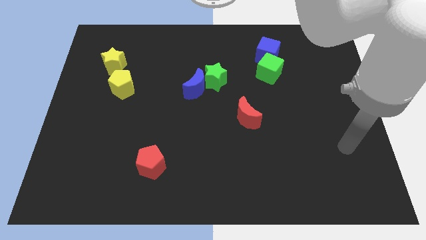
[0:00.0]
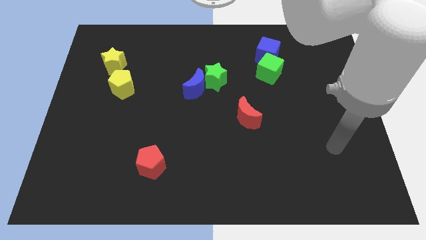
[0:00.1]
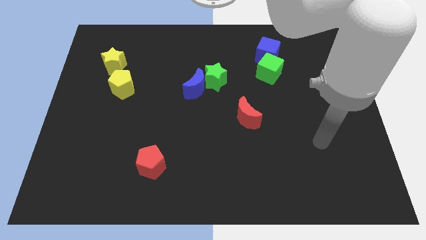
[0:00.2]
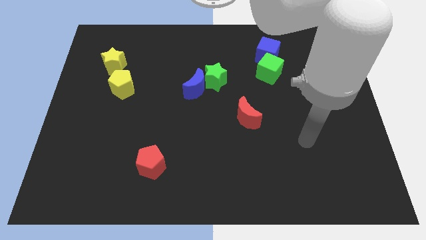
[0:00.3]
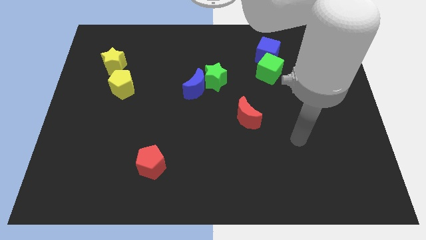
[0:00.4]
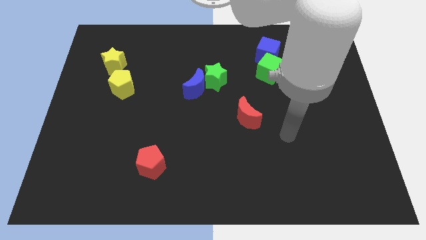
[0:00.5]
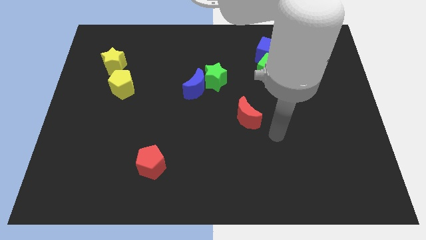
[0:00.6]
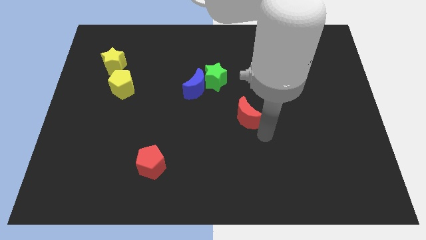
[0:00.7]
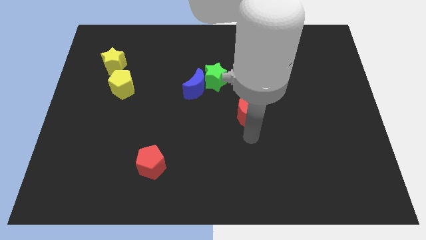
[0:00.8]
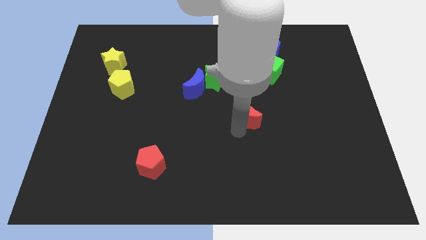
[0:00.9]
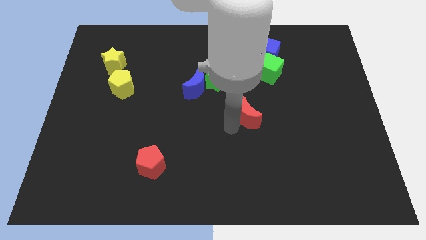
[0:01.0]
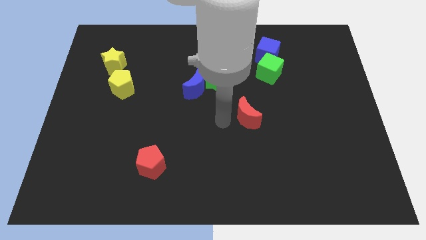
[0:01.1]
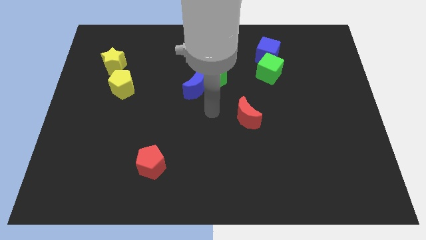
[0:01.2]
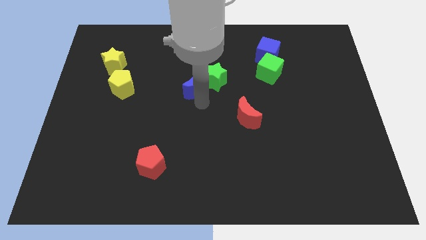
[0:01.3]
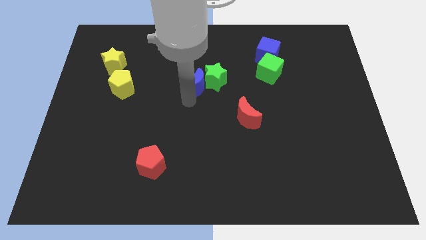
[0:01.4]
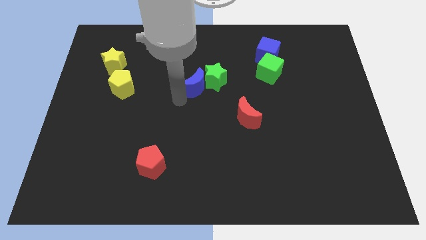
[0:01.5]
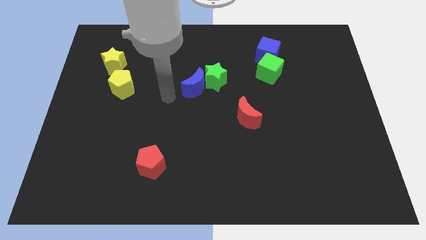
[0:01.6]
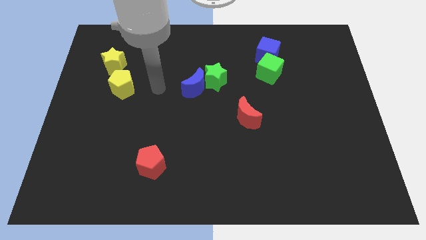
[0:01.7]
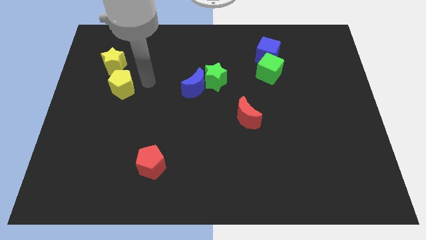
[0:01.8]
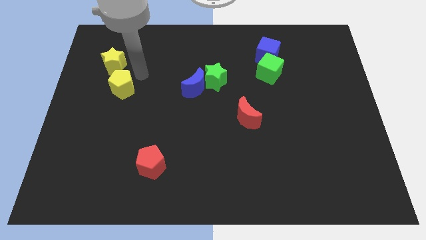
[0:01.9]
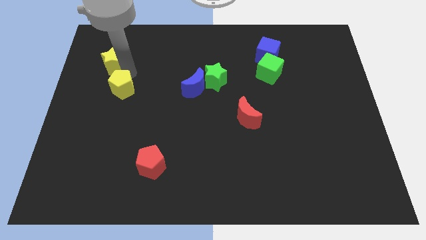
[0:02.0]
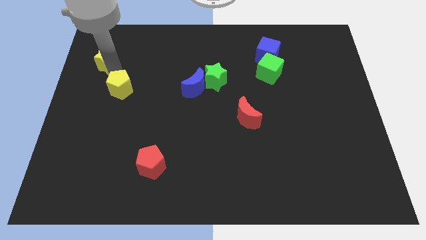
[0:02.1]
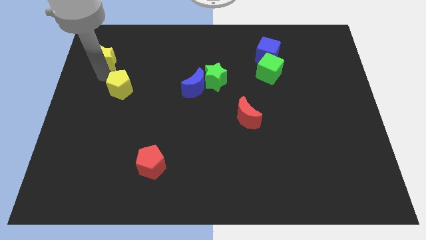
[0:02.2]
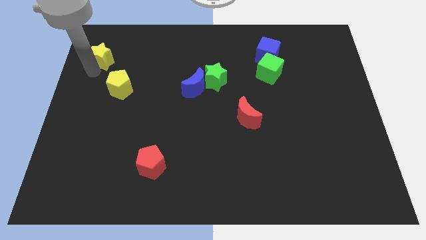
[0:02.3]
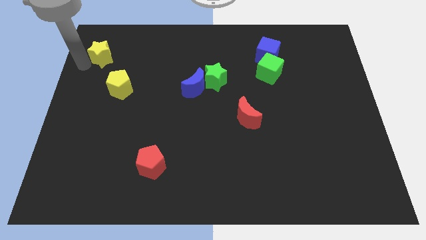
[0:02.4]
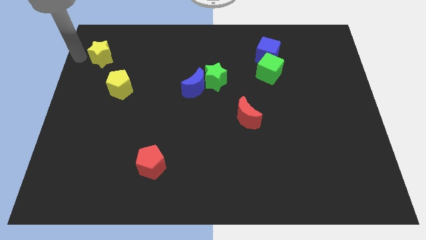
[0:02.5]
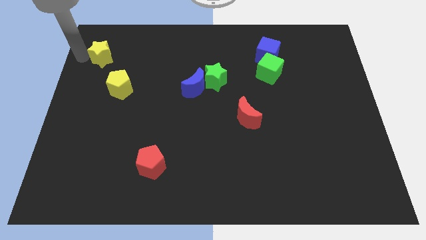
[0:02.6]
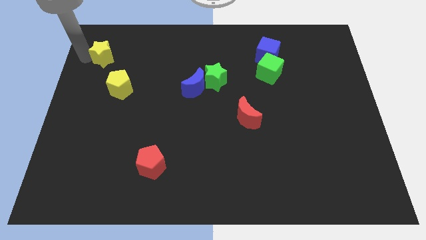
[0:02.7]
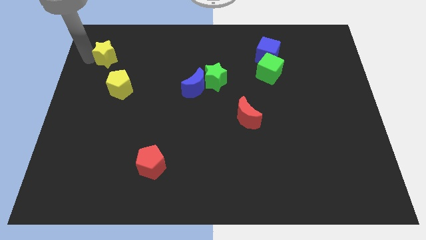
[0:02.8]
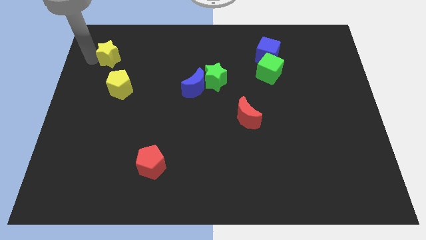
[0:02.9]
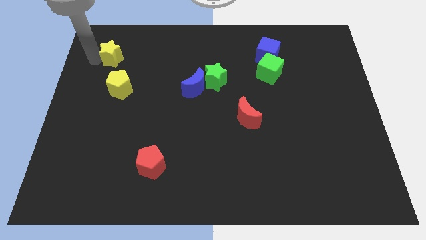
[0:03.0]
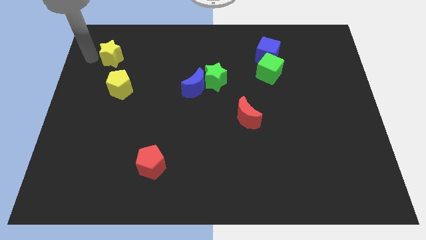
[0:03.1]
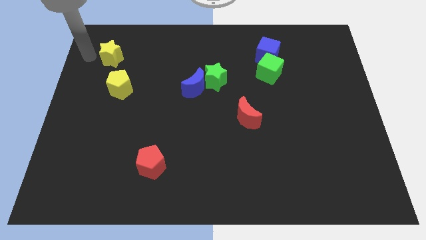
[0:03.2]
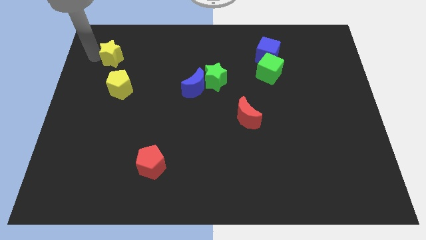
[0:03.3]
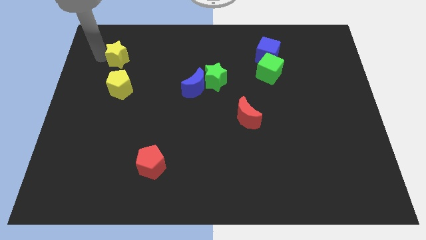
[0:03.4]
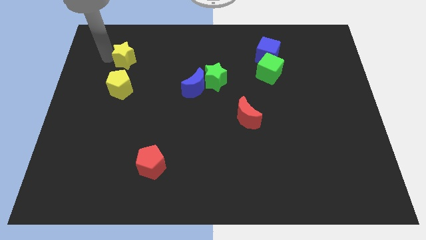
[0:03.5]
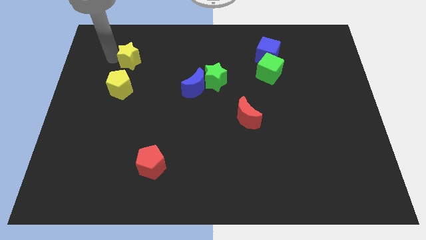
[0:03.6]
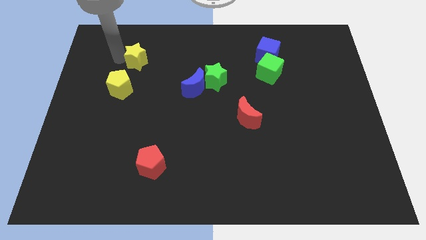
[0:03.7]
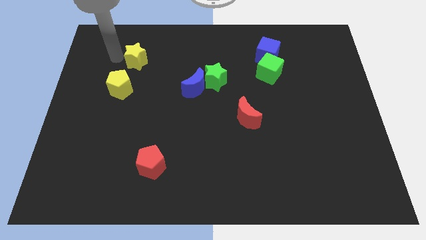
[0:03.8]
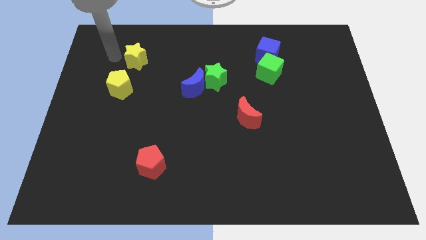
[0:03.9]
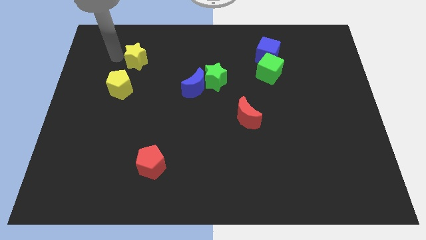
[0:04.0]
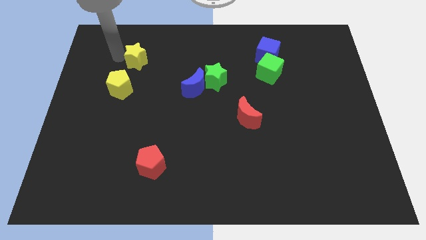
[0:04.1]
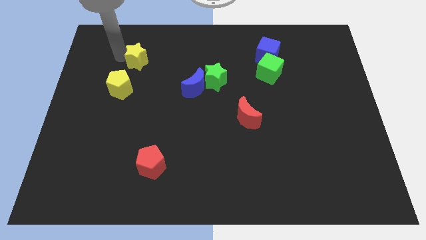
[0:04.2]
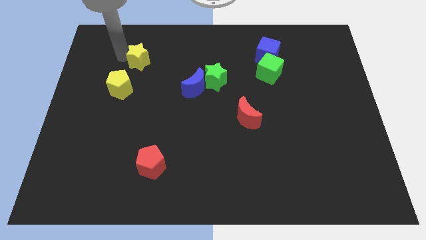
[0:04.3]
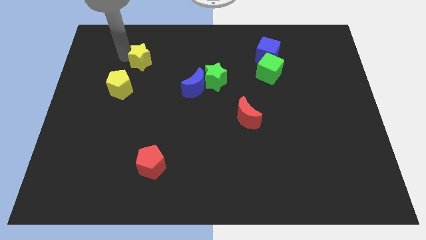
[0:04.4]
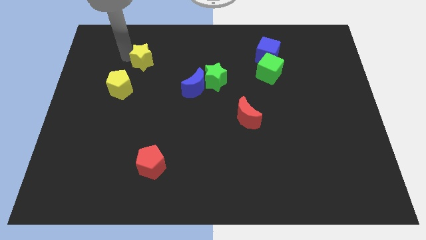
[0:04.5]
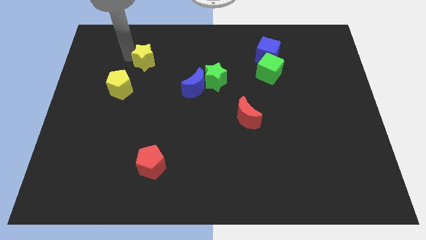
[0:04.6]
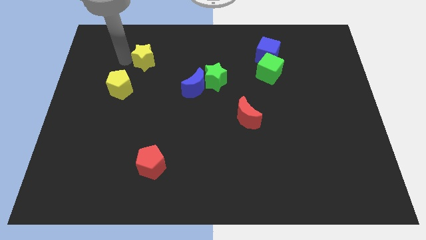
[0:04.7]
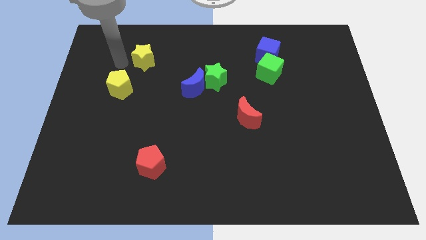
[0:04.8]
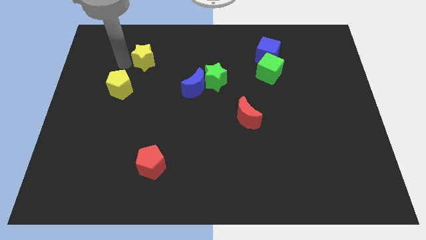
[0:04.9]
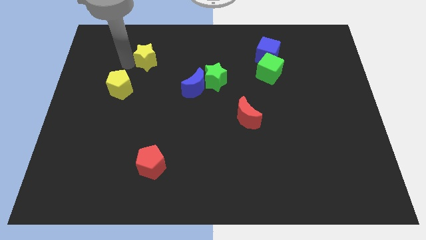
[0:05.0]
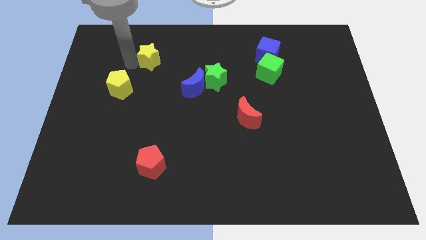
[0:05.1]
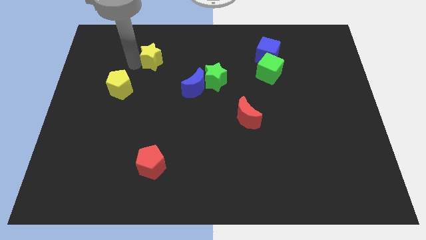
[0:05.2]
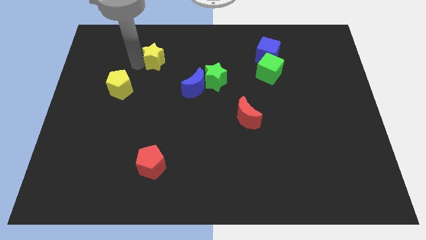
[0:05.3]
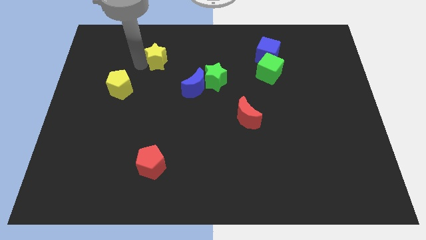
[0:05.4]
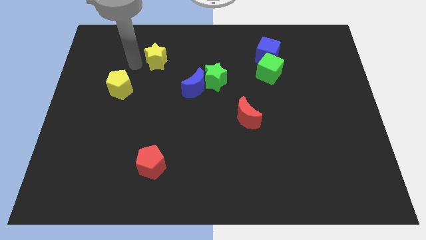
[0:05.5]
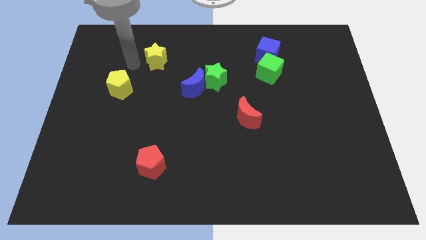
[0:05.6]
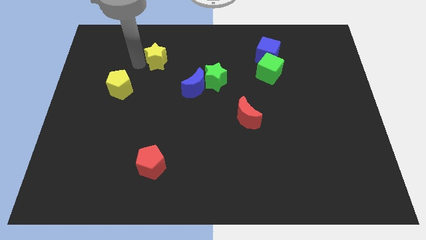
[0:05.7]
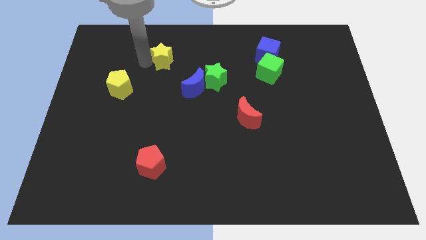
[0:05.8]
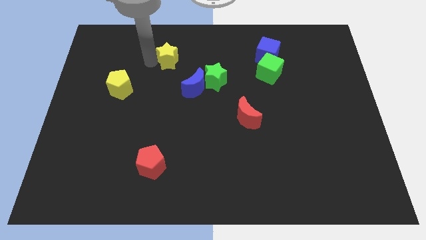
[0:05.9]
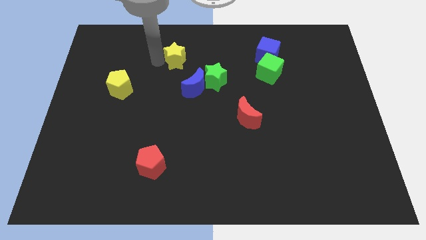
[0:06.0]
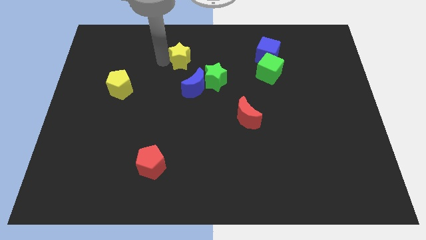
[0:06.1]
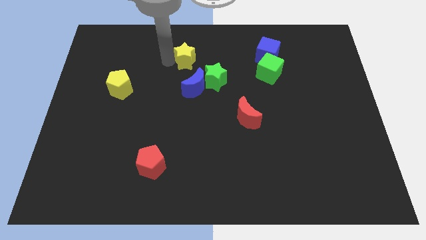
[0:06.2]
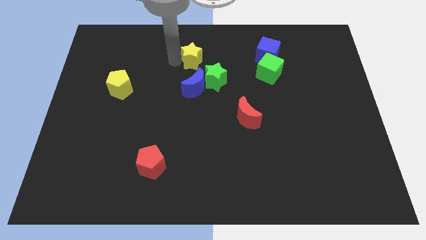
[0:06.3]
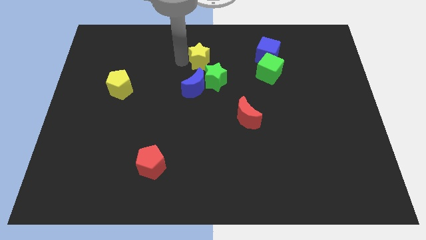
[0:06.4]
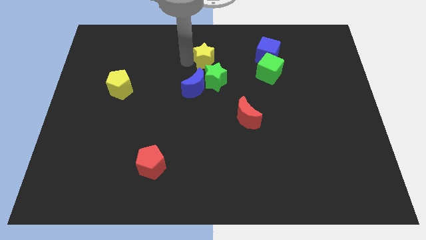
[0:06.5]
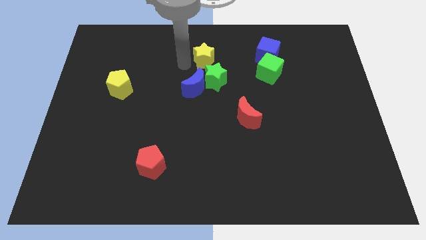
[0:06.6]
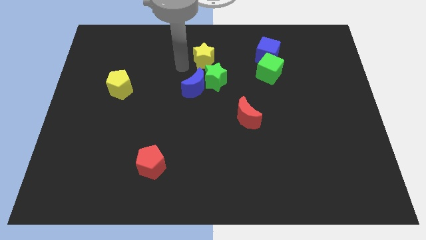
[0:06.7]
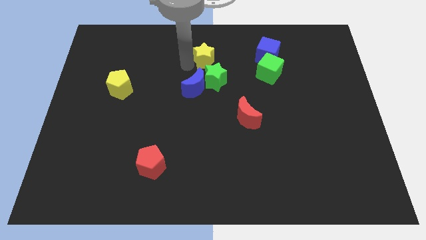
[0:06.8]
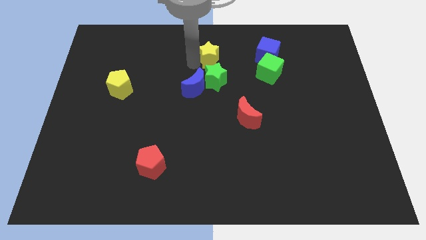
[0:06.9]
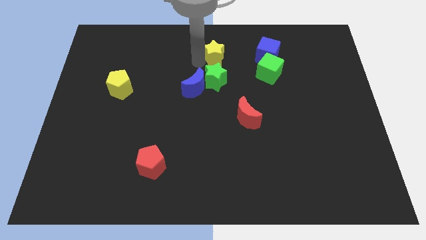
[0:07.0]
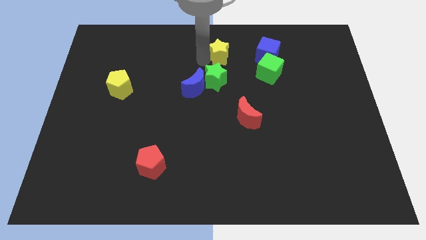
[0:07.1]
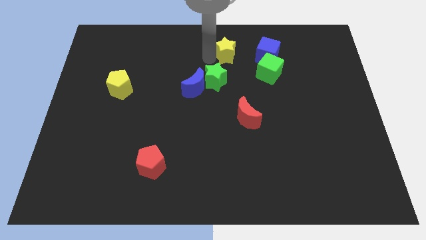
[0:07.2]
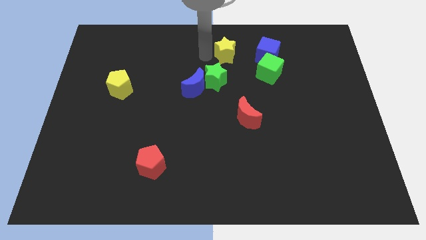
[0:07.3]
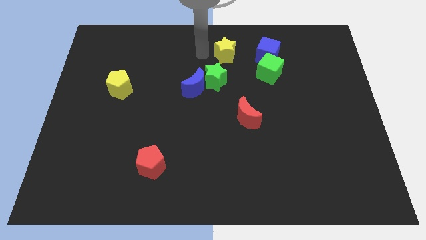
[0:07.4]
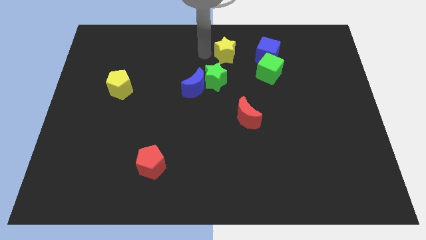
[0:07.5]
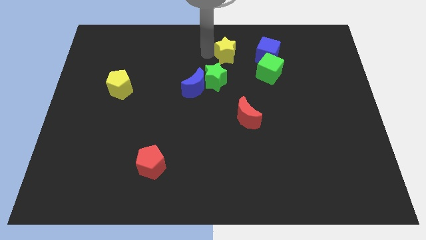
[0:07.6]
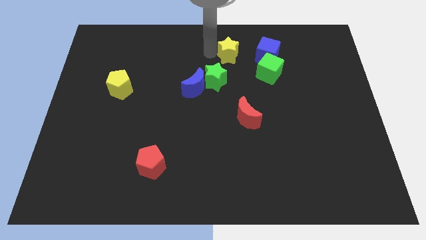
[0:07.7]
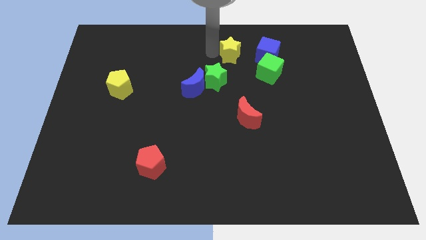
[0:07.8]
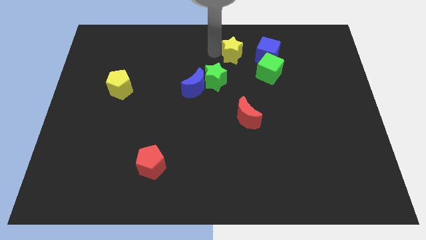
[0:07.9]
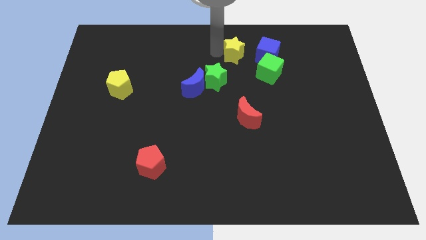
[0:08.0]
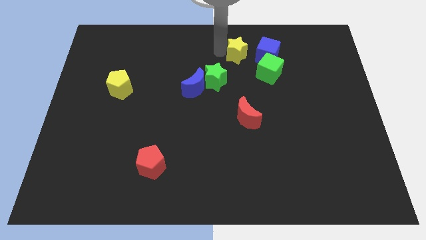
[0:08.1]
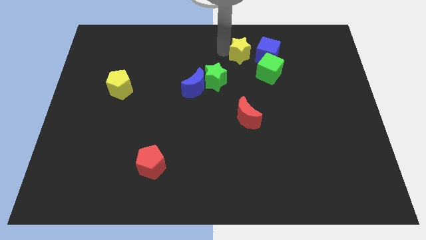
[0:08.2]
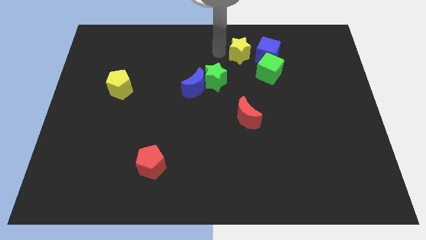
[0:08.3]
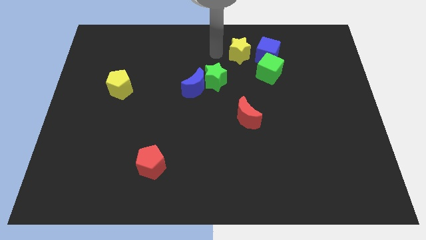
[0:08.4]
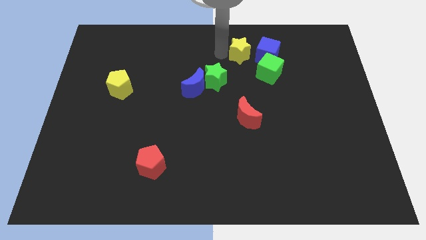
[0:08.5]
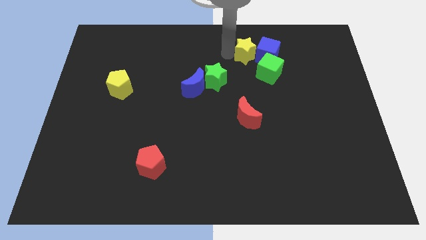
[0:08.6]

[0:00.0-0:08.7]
push the yellow star next to the blue cube

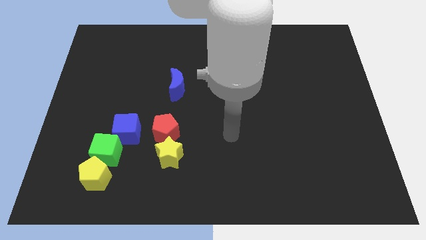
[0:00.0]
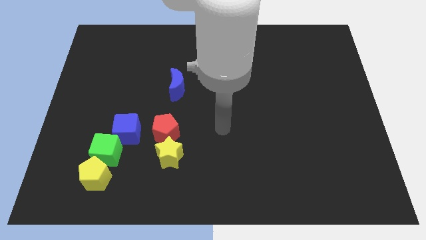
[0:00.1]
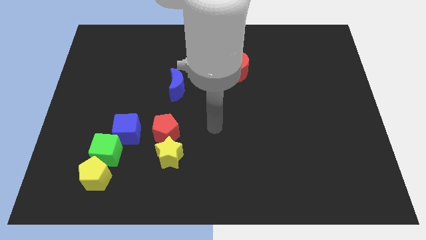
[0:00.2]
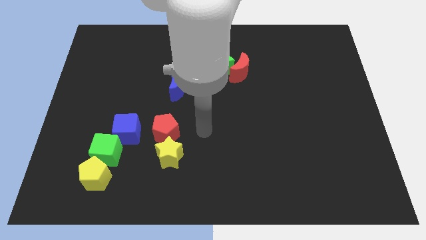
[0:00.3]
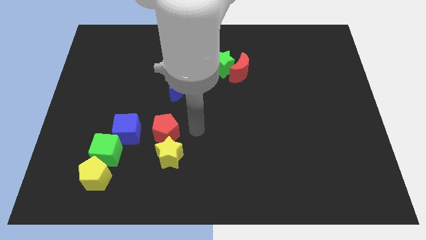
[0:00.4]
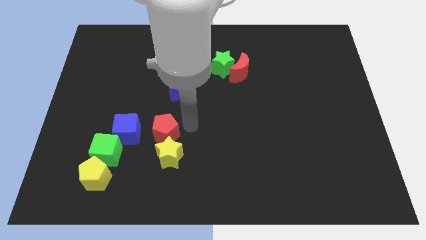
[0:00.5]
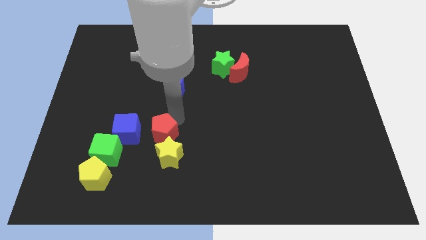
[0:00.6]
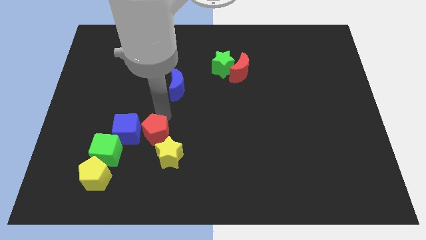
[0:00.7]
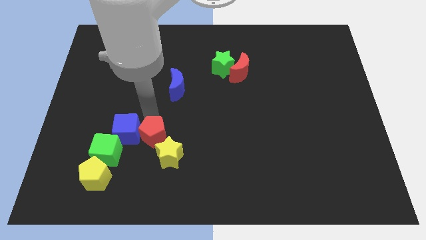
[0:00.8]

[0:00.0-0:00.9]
move the blue cube close to the red pentagon
